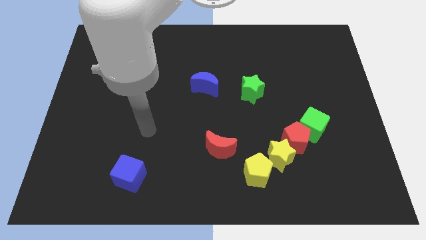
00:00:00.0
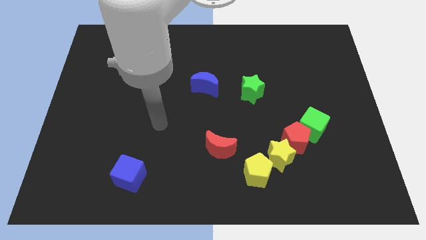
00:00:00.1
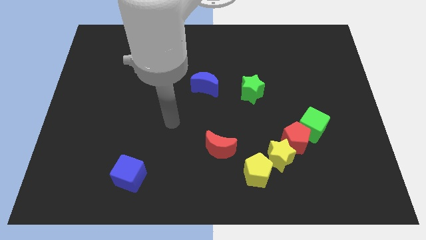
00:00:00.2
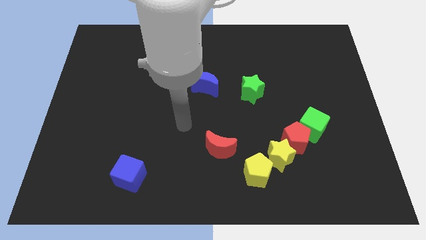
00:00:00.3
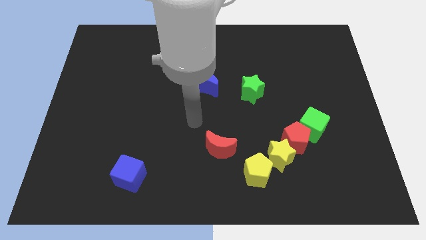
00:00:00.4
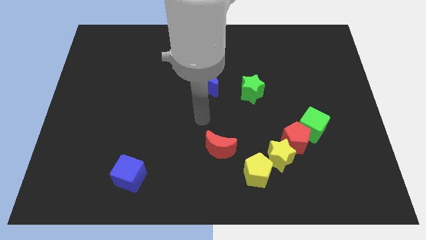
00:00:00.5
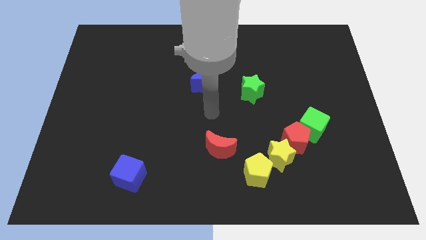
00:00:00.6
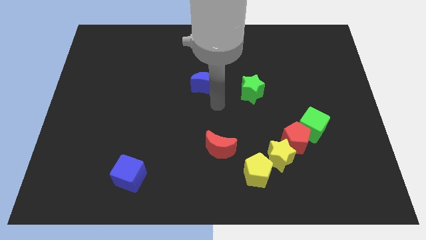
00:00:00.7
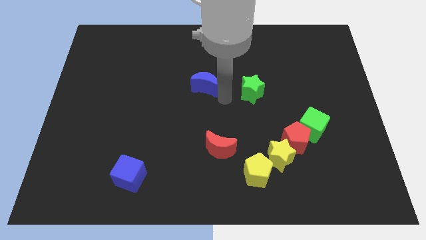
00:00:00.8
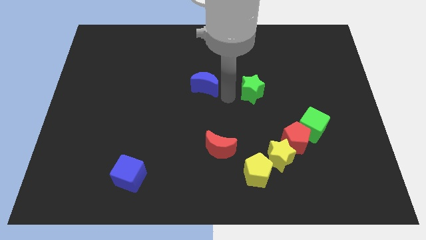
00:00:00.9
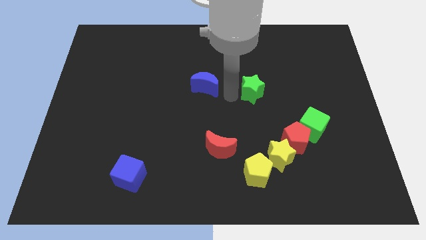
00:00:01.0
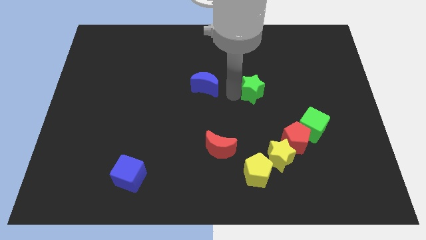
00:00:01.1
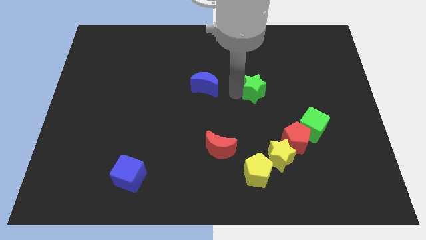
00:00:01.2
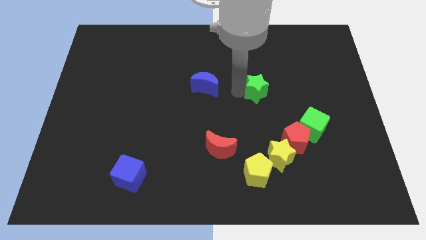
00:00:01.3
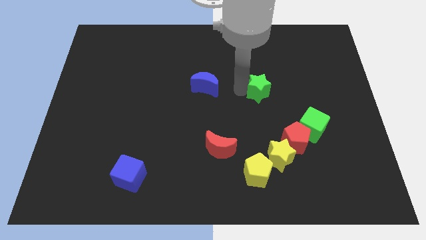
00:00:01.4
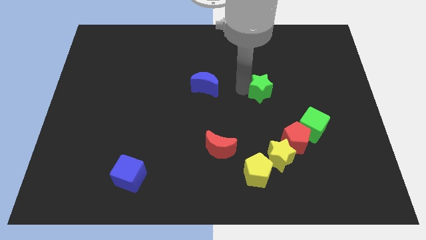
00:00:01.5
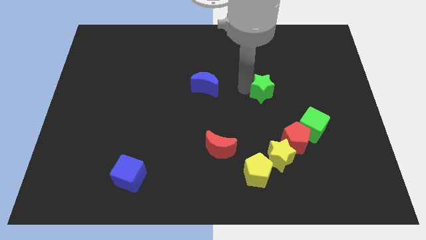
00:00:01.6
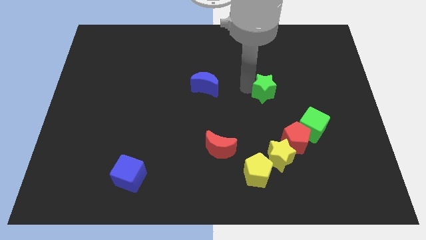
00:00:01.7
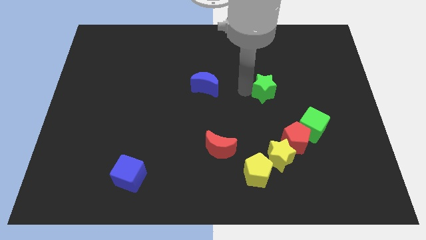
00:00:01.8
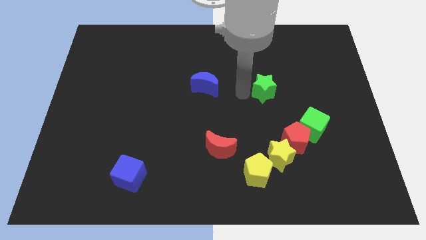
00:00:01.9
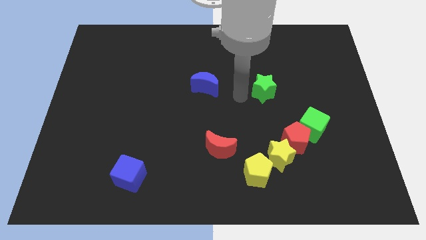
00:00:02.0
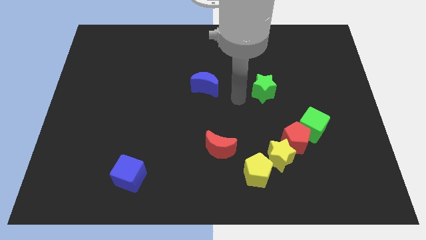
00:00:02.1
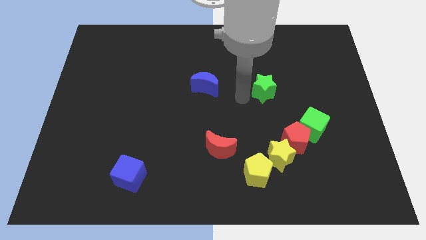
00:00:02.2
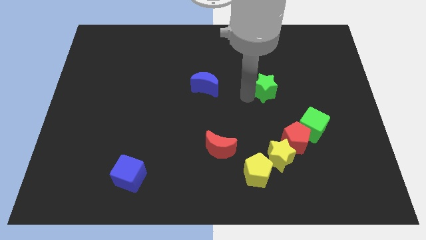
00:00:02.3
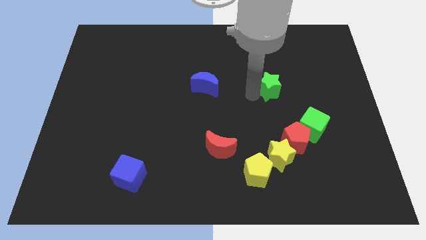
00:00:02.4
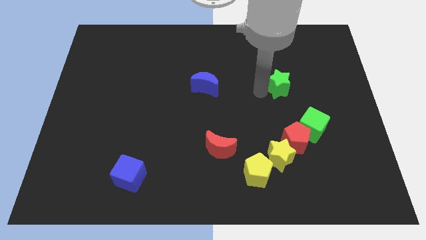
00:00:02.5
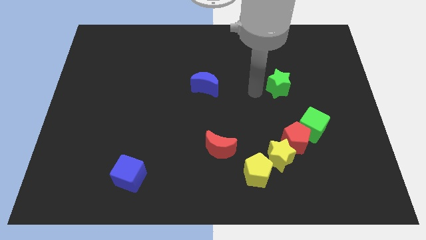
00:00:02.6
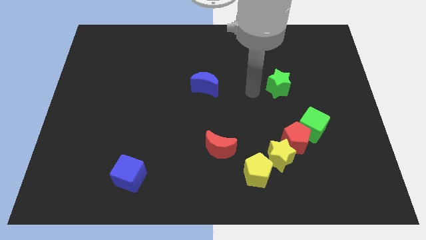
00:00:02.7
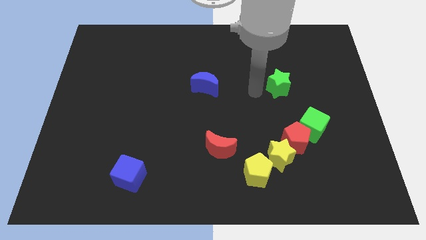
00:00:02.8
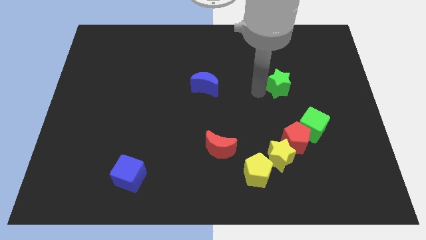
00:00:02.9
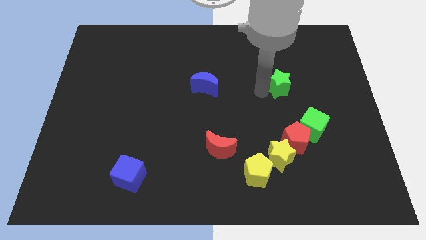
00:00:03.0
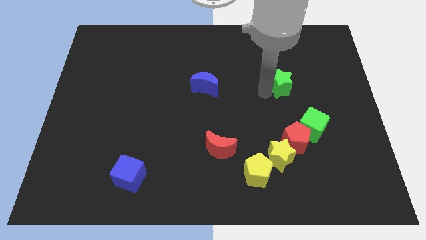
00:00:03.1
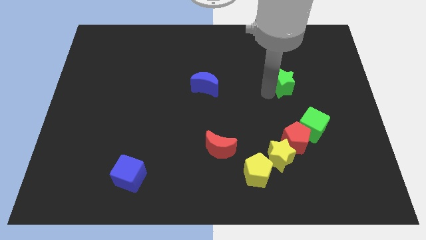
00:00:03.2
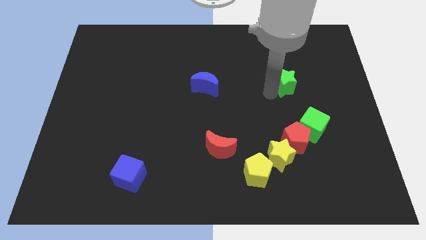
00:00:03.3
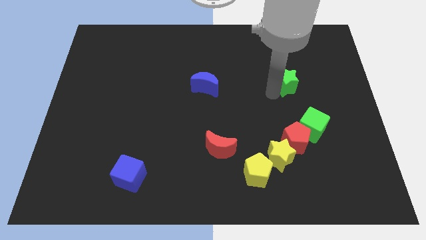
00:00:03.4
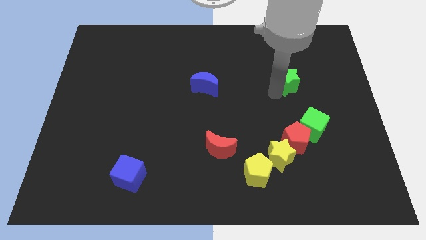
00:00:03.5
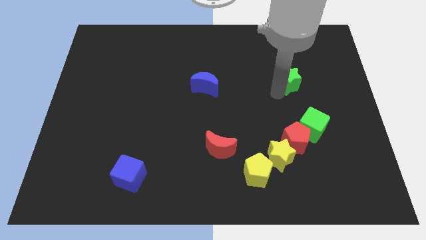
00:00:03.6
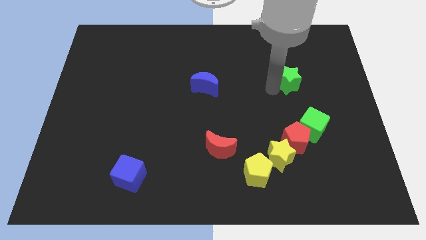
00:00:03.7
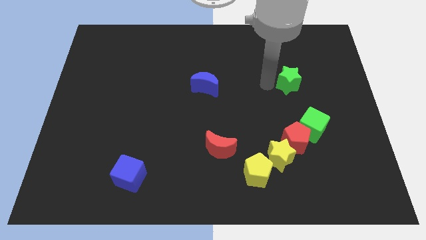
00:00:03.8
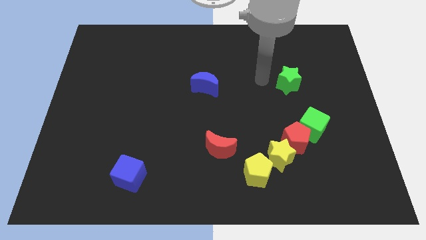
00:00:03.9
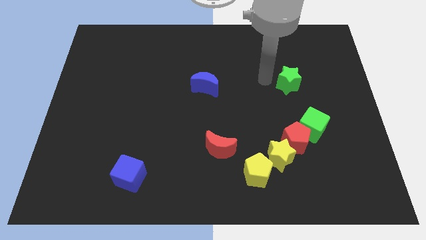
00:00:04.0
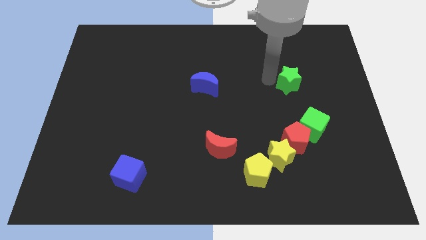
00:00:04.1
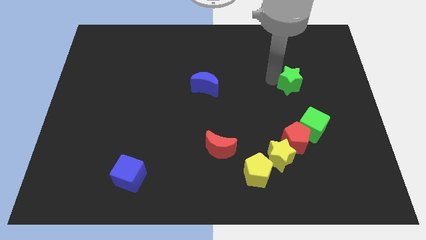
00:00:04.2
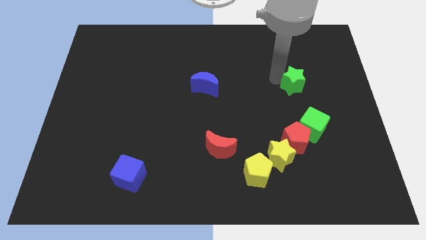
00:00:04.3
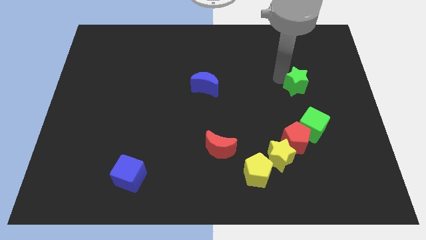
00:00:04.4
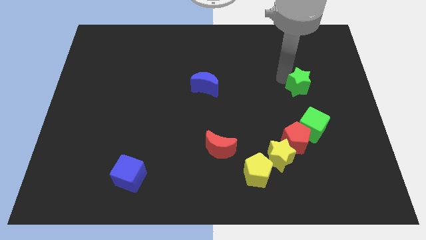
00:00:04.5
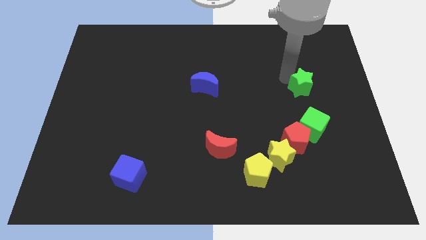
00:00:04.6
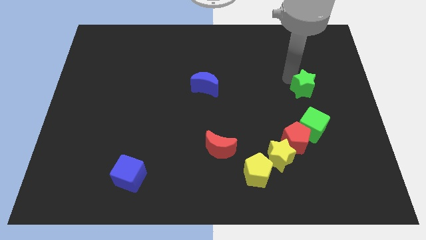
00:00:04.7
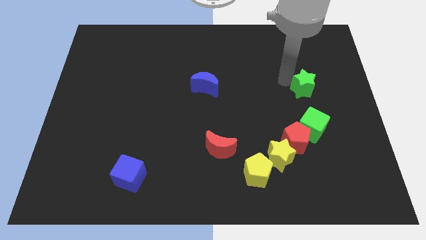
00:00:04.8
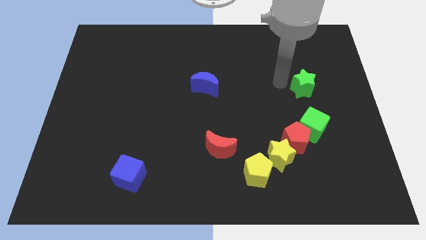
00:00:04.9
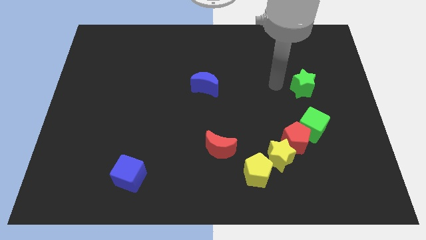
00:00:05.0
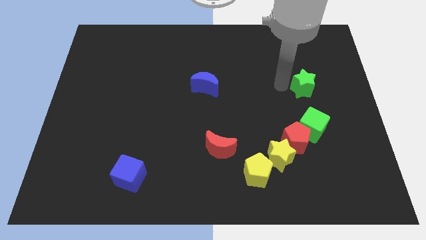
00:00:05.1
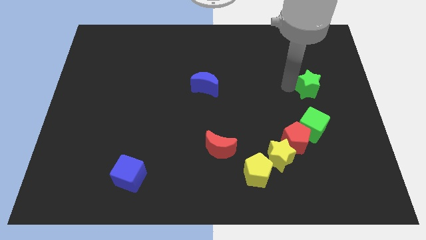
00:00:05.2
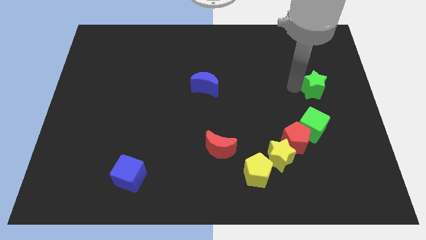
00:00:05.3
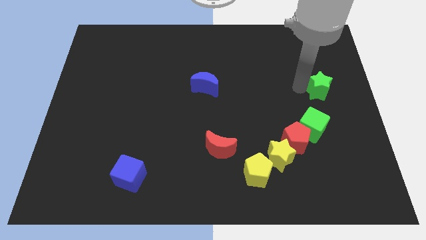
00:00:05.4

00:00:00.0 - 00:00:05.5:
slide the green star to the right side of the board

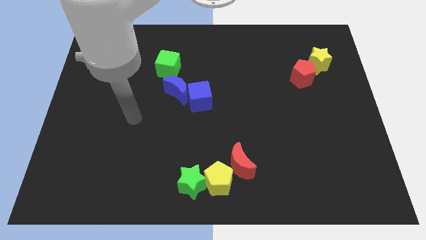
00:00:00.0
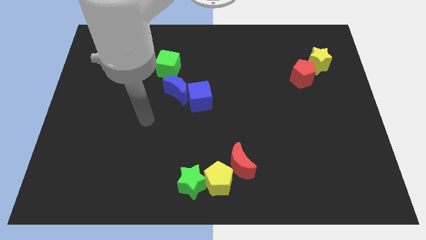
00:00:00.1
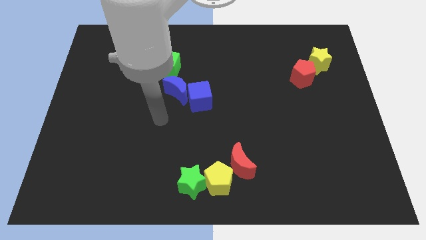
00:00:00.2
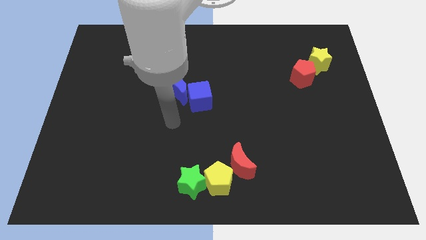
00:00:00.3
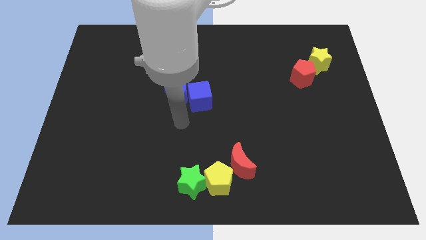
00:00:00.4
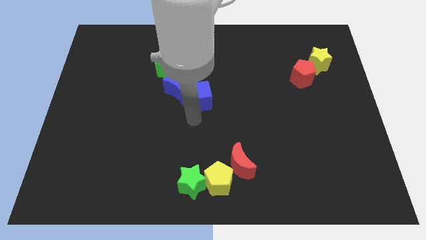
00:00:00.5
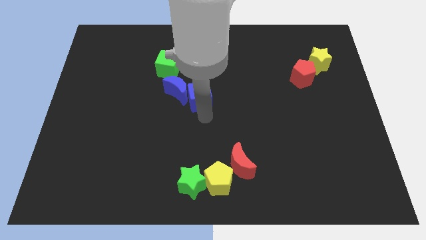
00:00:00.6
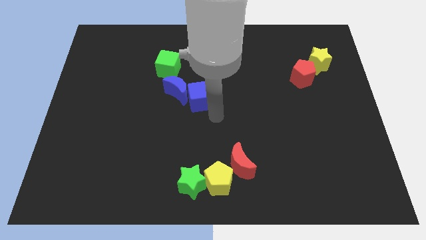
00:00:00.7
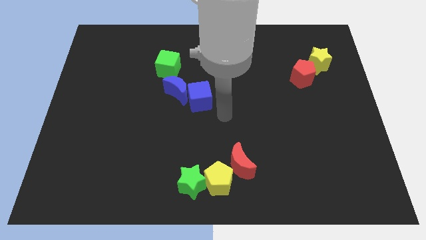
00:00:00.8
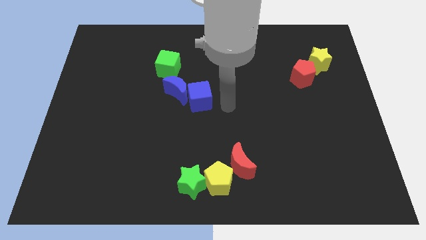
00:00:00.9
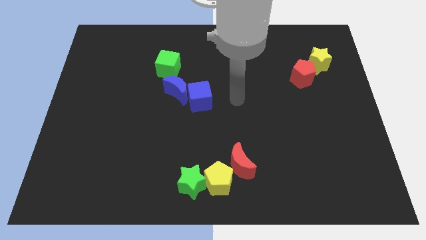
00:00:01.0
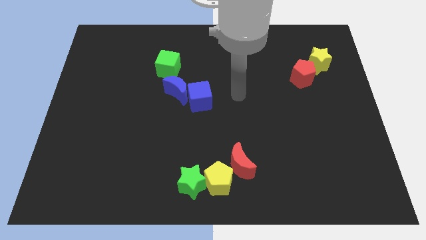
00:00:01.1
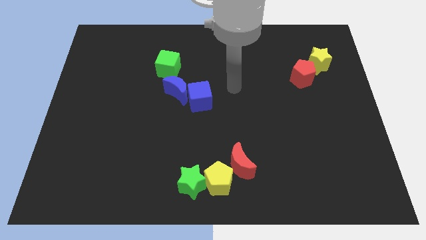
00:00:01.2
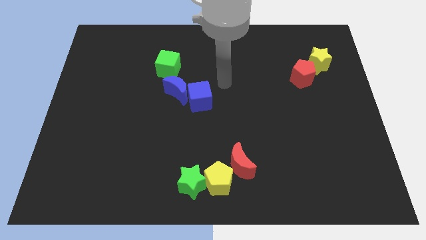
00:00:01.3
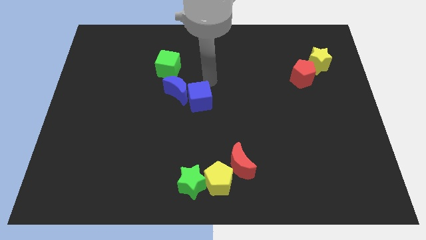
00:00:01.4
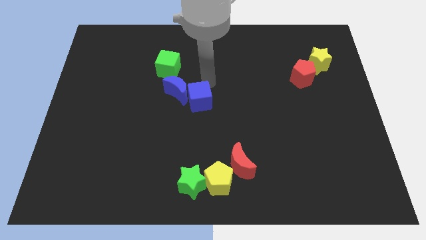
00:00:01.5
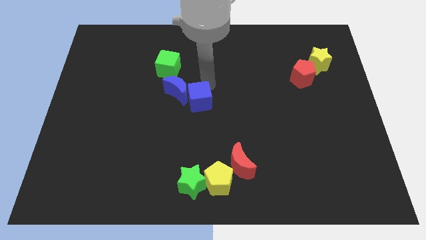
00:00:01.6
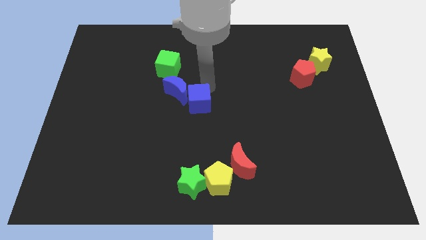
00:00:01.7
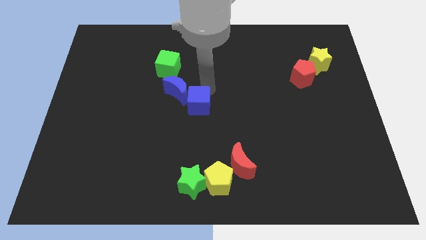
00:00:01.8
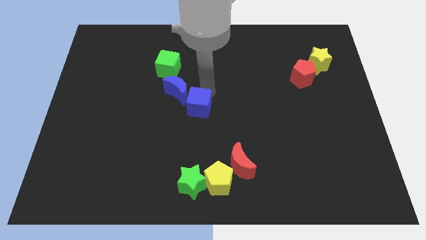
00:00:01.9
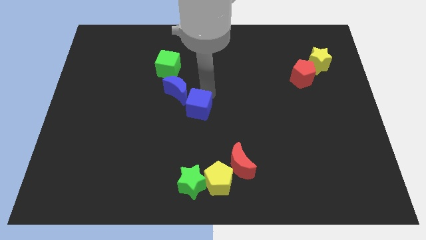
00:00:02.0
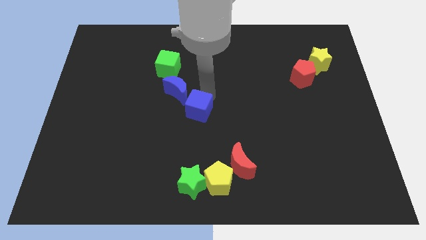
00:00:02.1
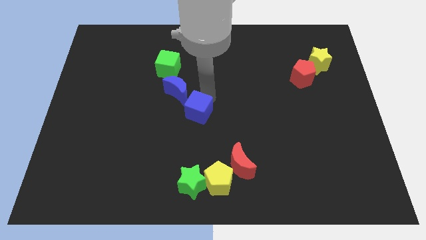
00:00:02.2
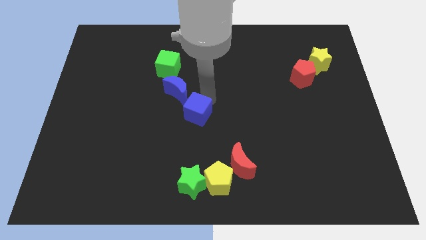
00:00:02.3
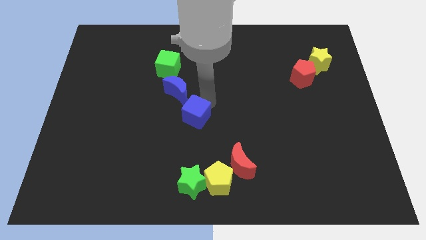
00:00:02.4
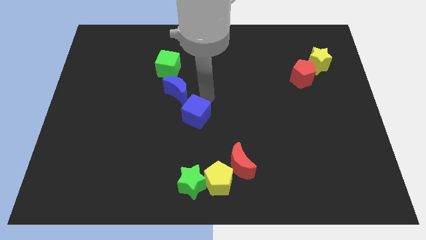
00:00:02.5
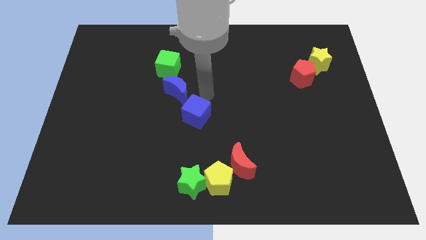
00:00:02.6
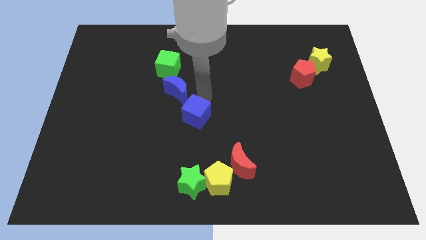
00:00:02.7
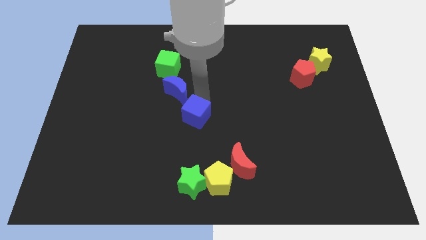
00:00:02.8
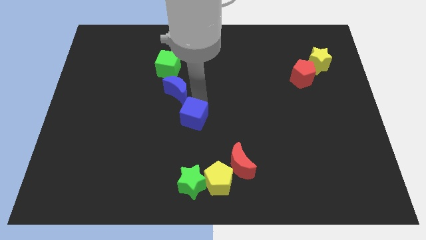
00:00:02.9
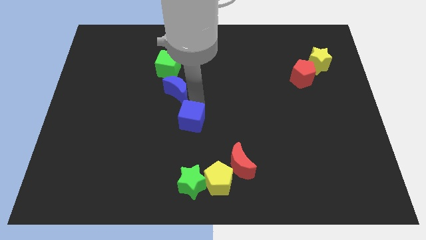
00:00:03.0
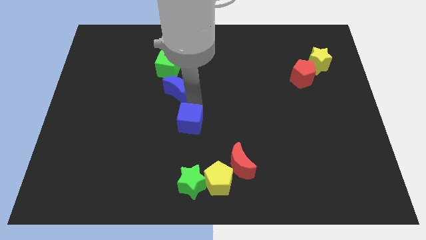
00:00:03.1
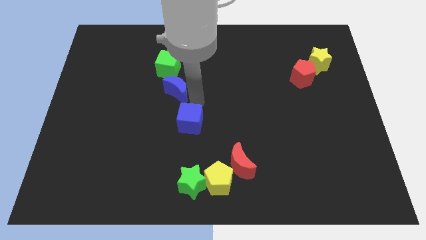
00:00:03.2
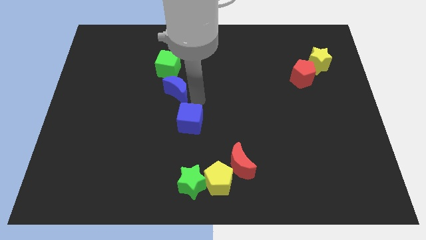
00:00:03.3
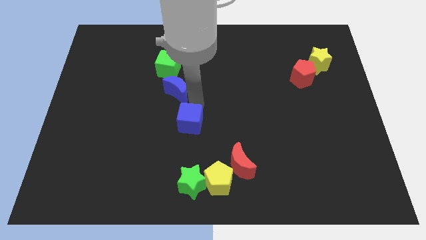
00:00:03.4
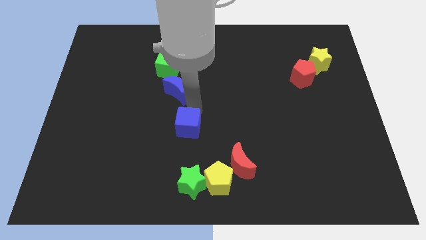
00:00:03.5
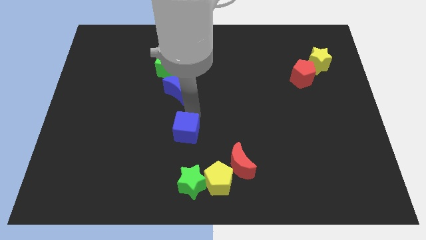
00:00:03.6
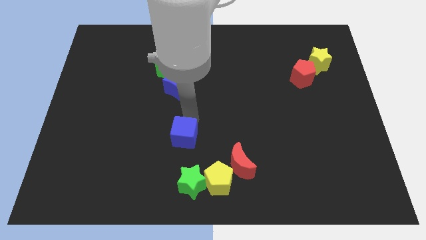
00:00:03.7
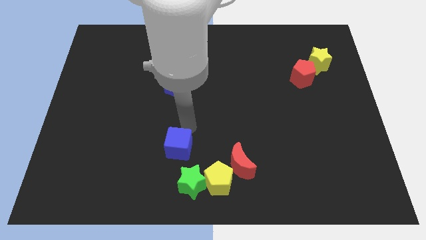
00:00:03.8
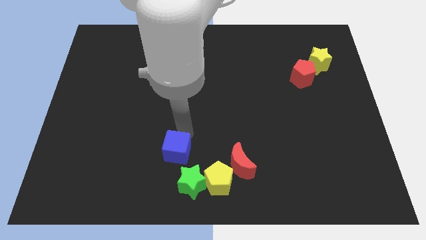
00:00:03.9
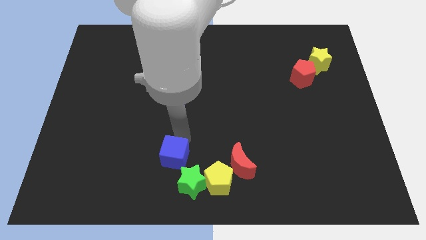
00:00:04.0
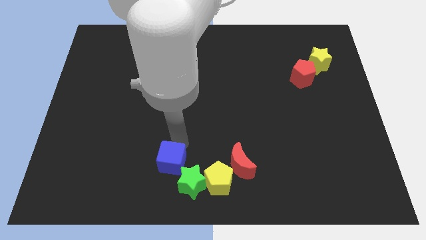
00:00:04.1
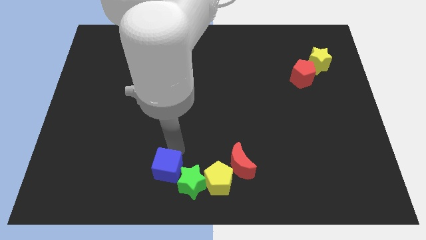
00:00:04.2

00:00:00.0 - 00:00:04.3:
push the blue cube to the bottom
